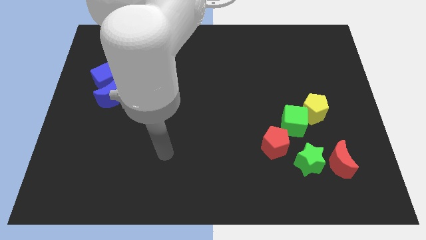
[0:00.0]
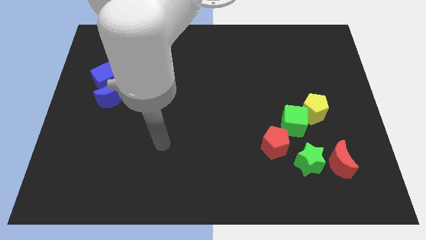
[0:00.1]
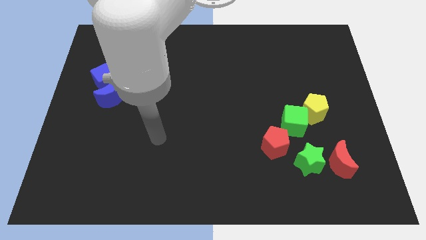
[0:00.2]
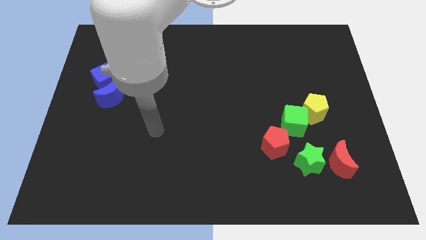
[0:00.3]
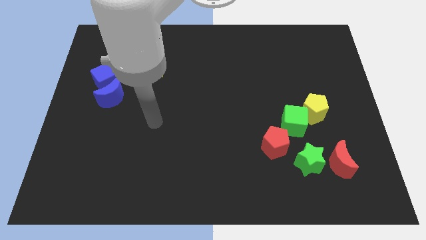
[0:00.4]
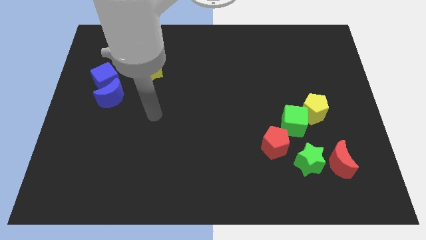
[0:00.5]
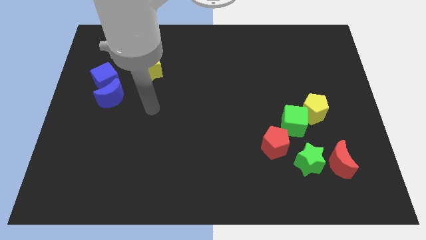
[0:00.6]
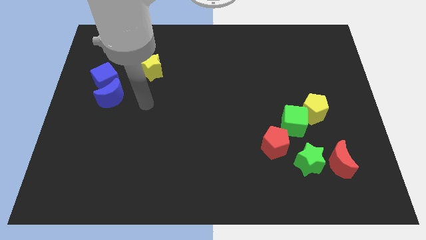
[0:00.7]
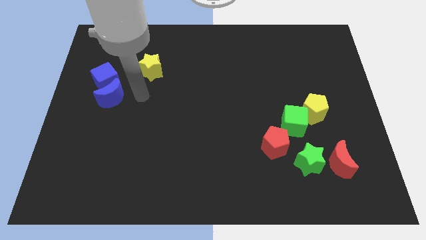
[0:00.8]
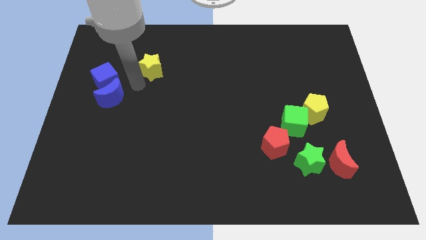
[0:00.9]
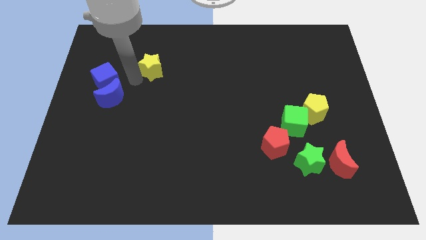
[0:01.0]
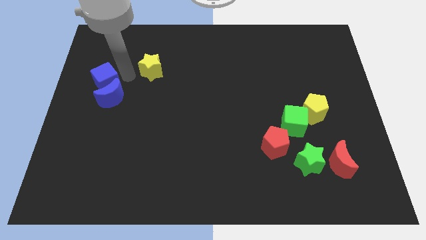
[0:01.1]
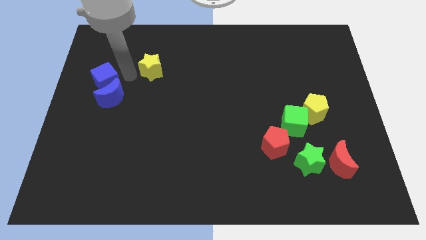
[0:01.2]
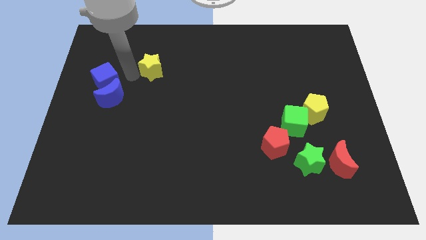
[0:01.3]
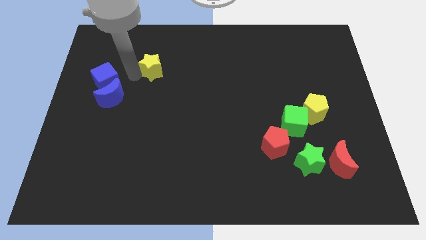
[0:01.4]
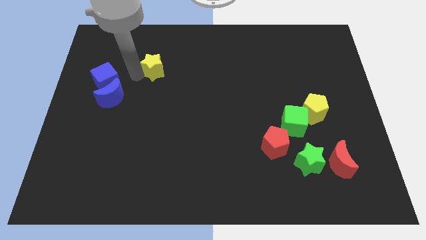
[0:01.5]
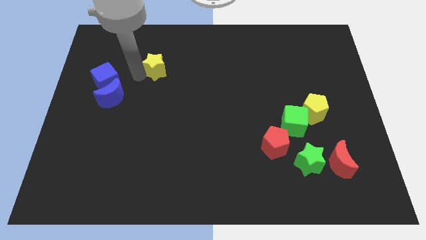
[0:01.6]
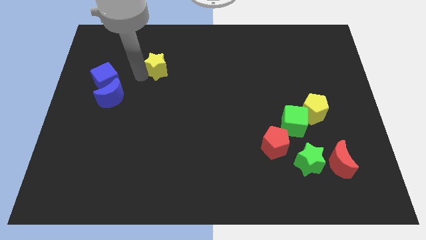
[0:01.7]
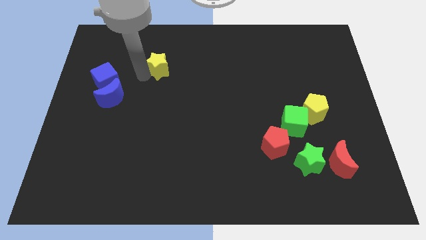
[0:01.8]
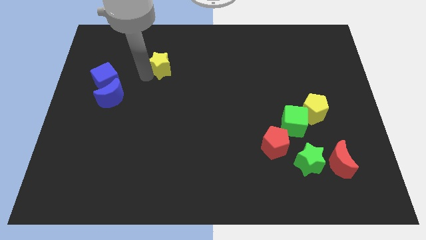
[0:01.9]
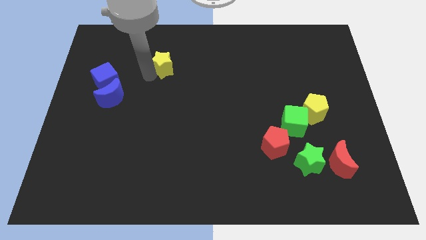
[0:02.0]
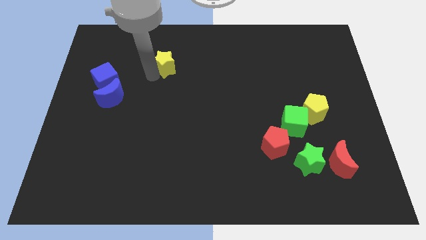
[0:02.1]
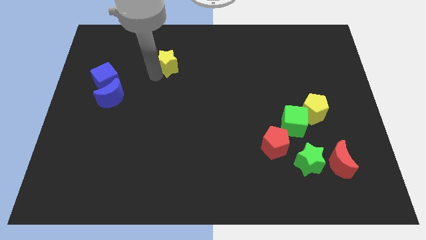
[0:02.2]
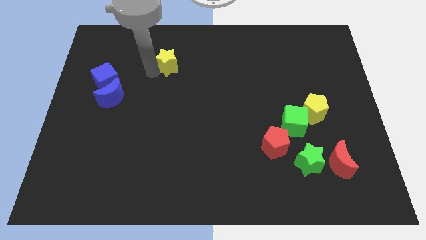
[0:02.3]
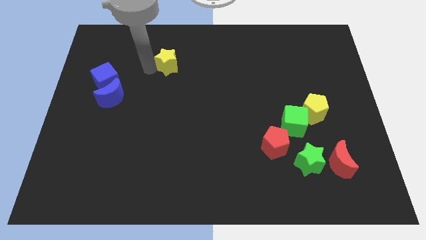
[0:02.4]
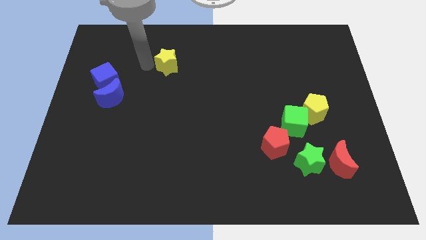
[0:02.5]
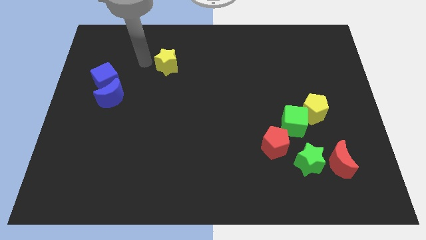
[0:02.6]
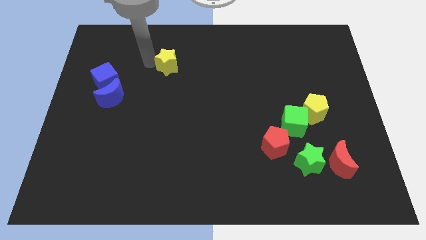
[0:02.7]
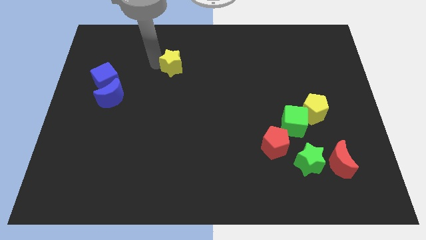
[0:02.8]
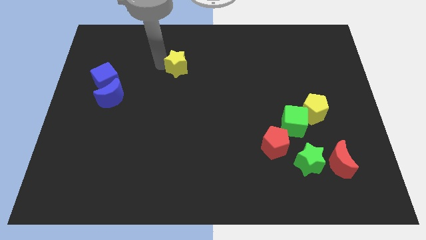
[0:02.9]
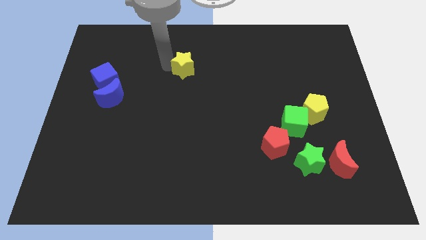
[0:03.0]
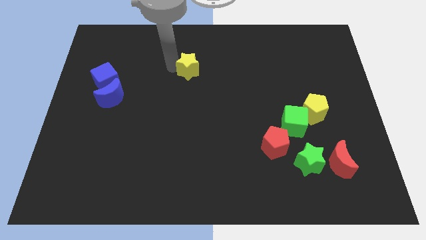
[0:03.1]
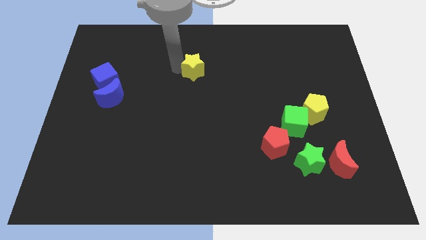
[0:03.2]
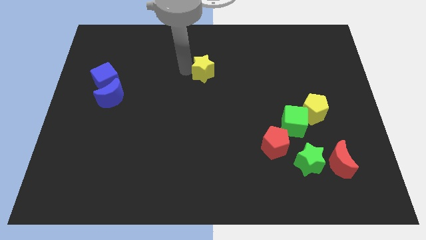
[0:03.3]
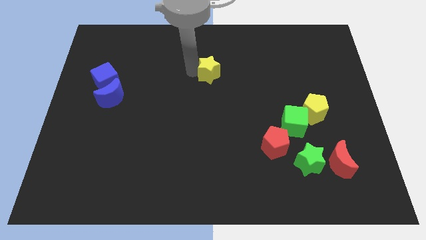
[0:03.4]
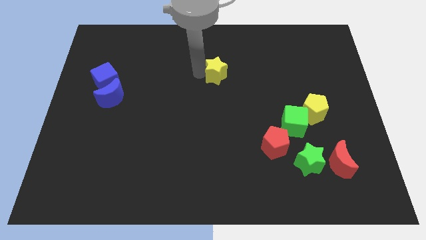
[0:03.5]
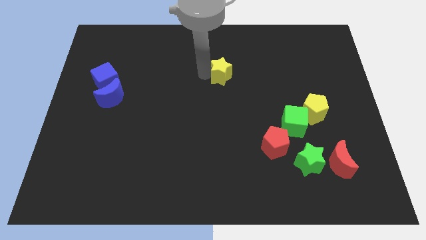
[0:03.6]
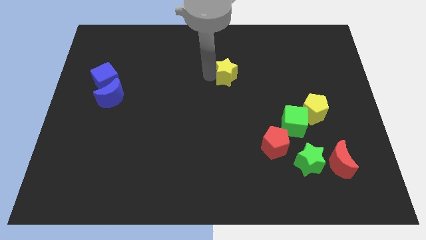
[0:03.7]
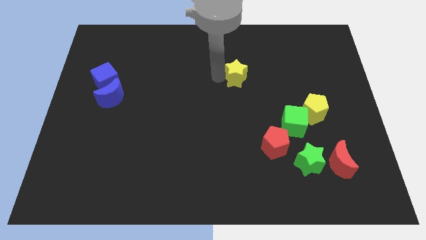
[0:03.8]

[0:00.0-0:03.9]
slide the yellow star right

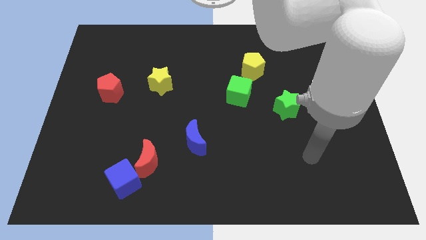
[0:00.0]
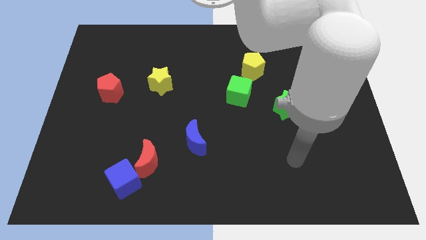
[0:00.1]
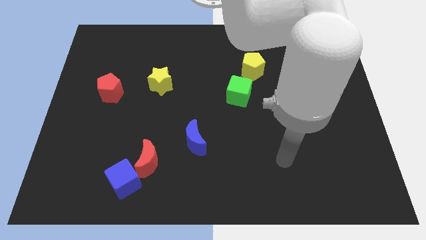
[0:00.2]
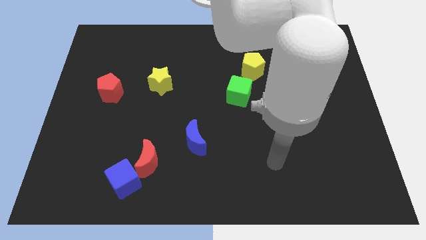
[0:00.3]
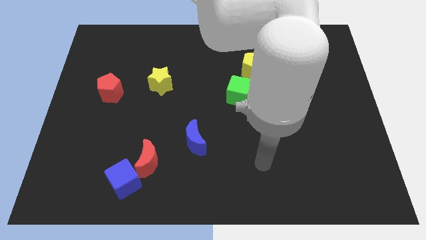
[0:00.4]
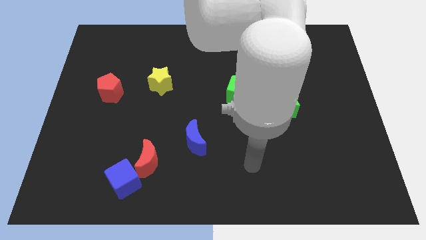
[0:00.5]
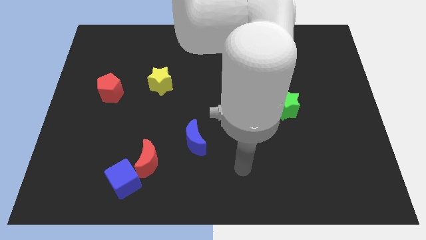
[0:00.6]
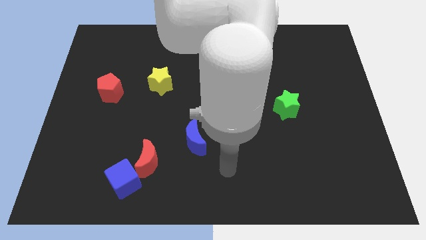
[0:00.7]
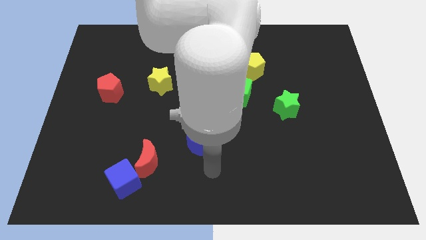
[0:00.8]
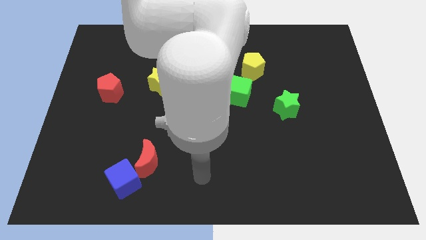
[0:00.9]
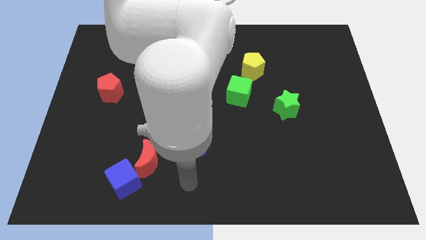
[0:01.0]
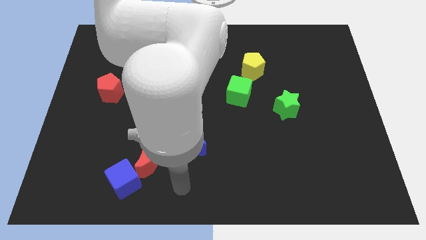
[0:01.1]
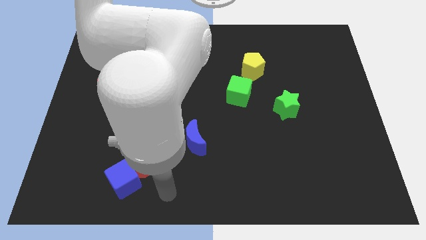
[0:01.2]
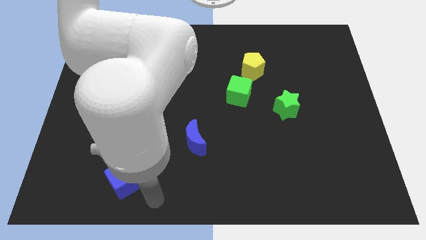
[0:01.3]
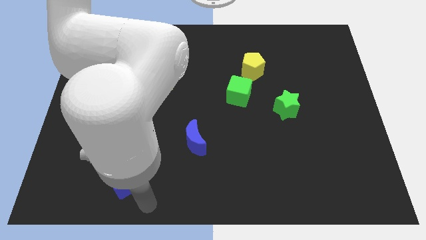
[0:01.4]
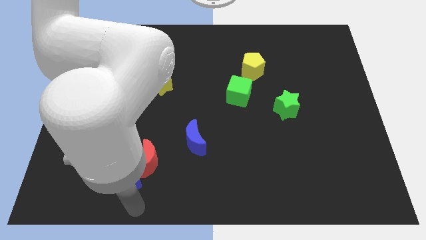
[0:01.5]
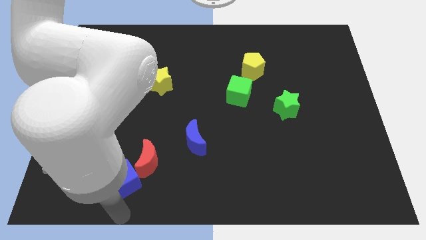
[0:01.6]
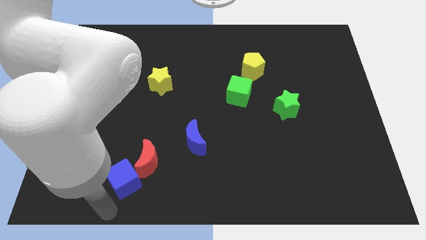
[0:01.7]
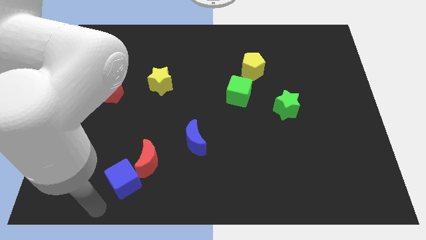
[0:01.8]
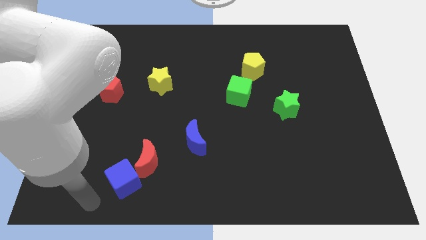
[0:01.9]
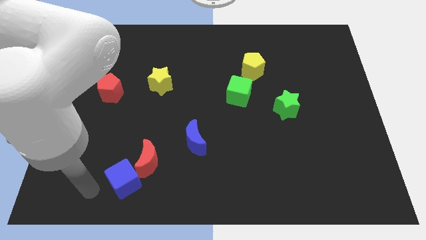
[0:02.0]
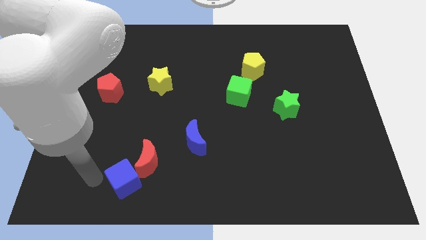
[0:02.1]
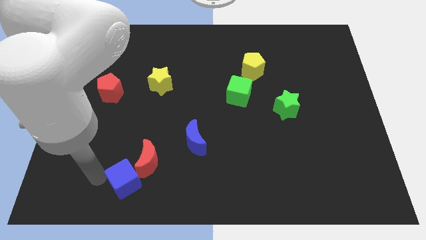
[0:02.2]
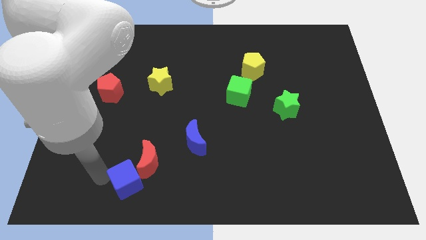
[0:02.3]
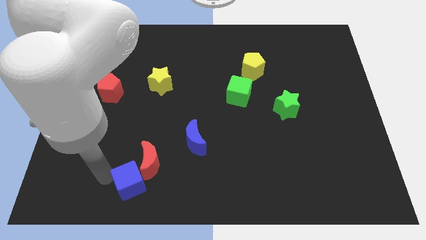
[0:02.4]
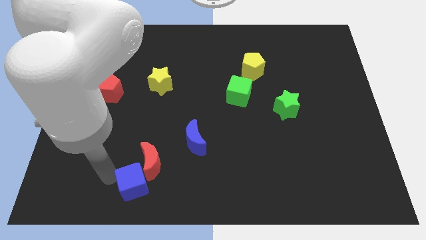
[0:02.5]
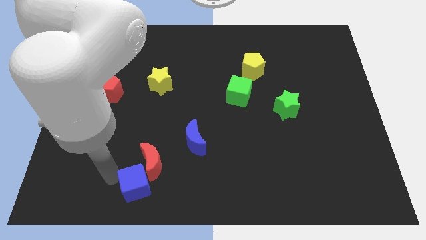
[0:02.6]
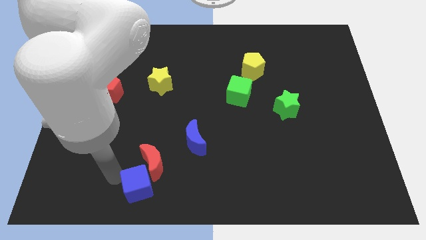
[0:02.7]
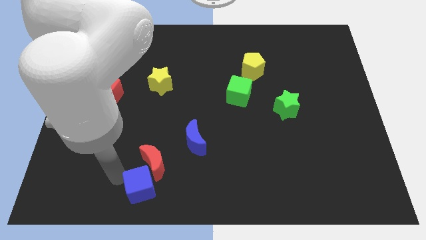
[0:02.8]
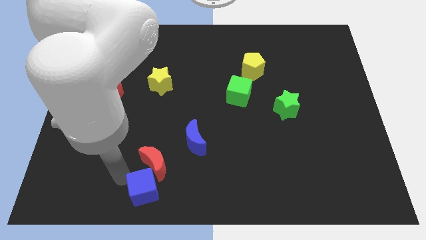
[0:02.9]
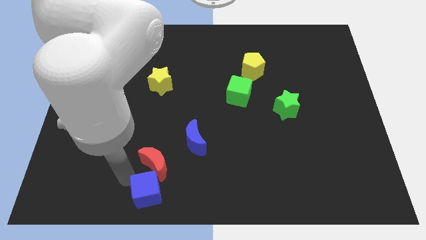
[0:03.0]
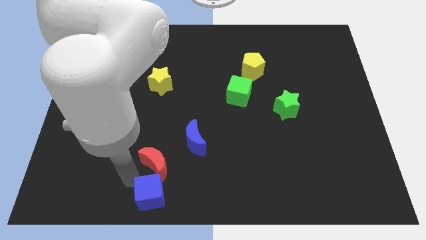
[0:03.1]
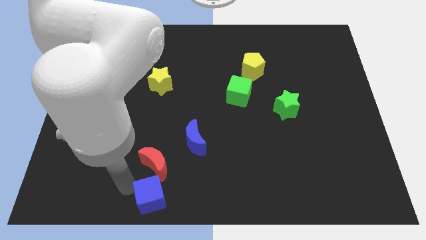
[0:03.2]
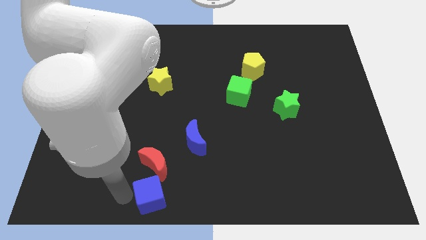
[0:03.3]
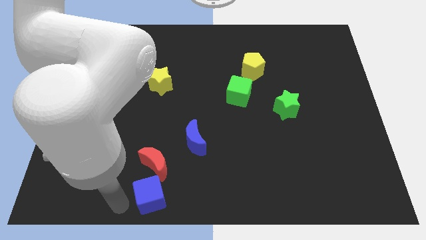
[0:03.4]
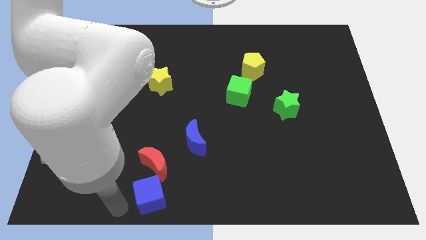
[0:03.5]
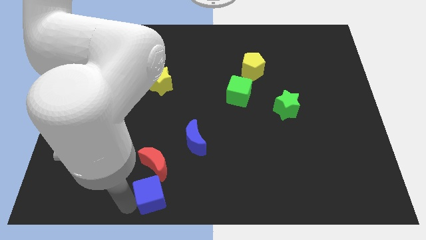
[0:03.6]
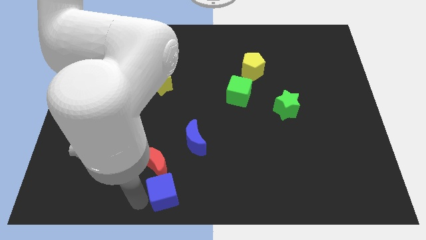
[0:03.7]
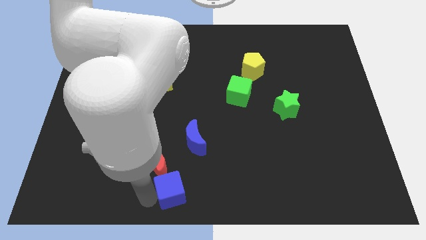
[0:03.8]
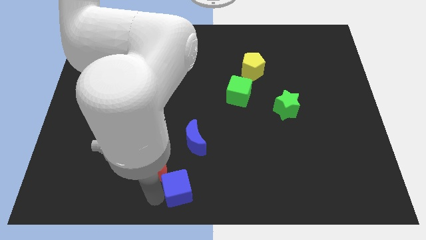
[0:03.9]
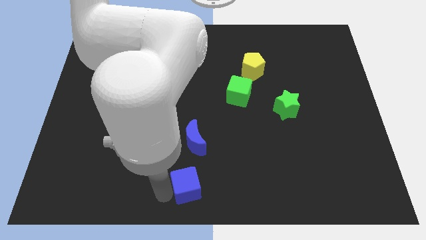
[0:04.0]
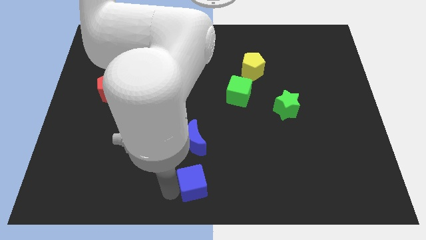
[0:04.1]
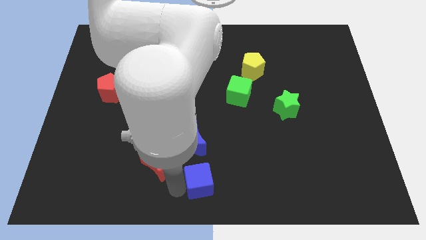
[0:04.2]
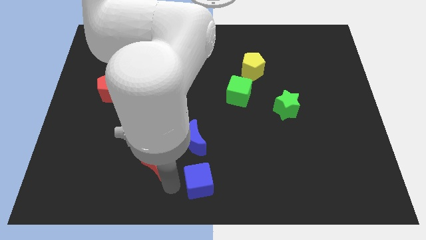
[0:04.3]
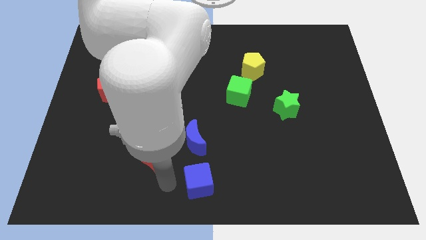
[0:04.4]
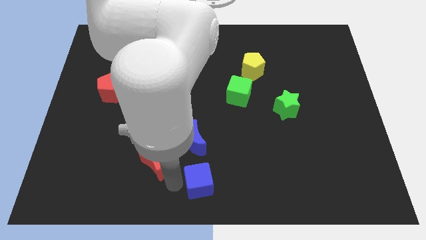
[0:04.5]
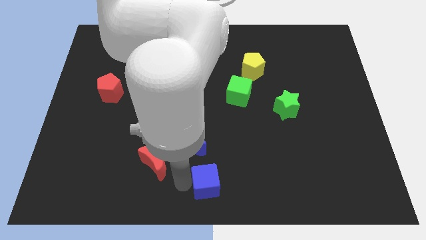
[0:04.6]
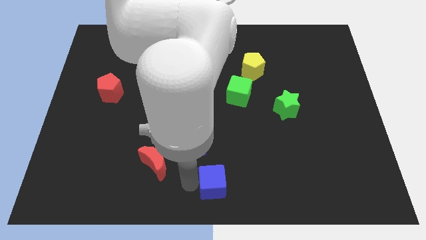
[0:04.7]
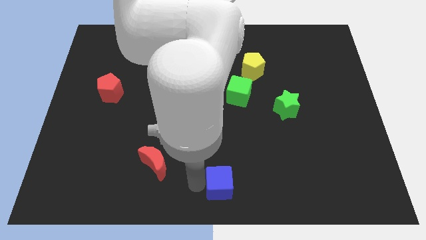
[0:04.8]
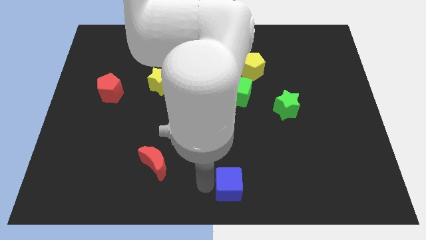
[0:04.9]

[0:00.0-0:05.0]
move the blue cube to the right
